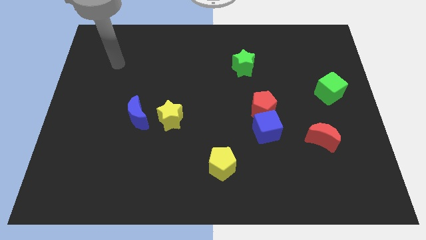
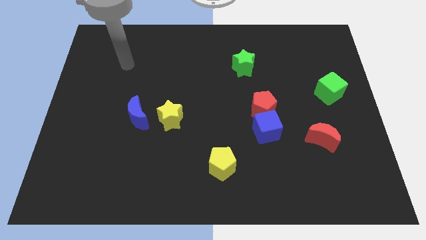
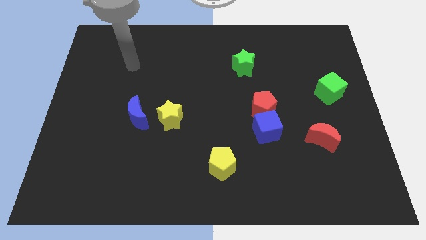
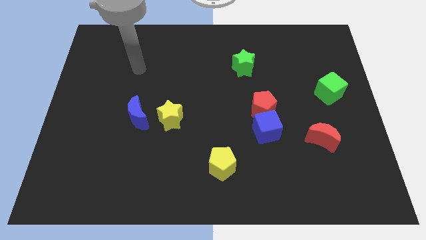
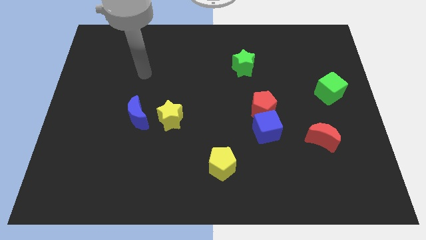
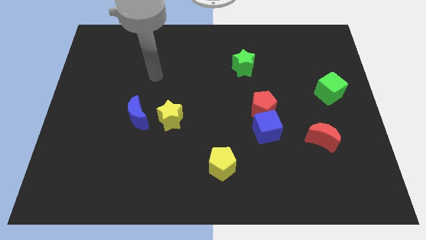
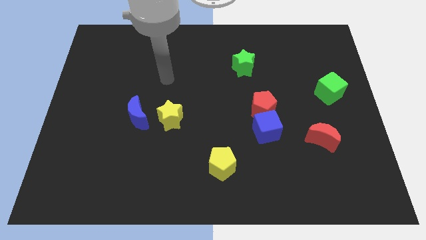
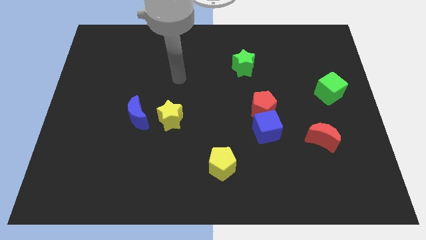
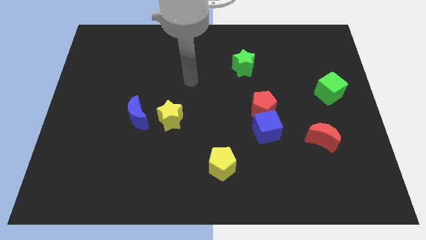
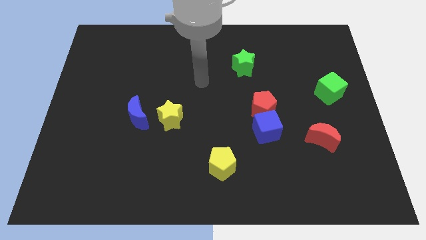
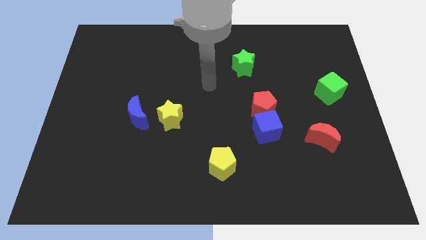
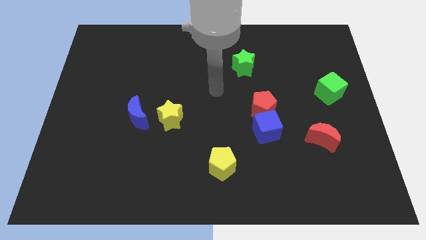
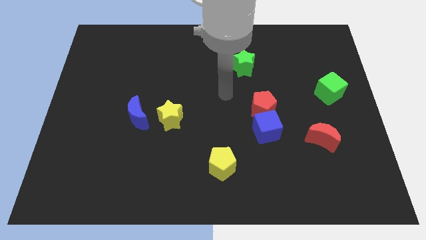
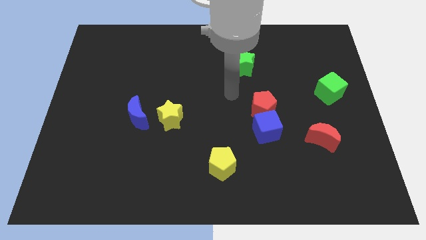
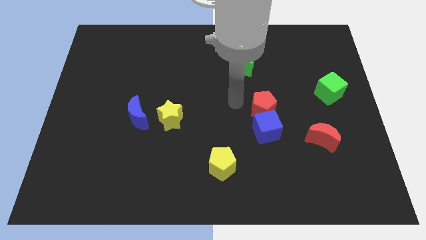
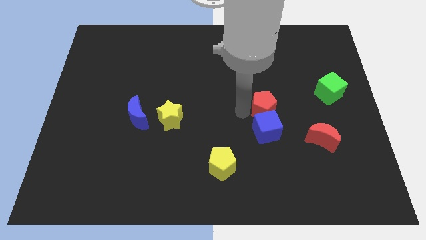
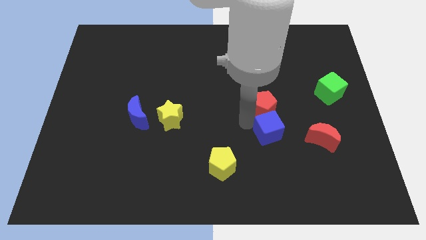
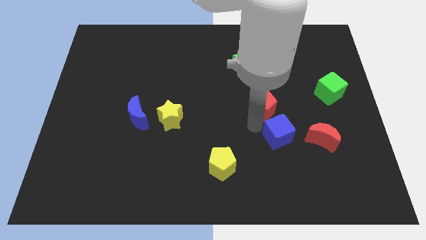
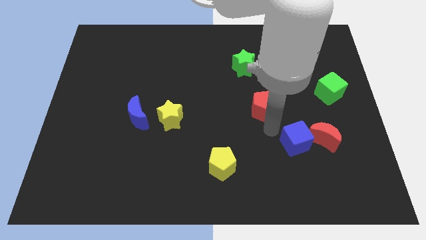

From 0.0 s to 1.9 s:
separate the red pentagon from the blue cube

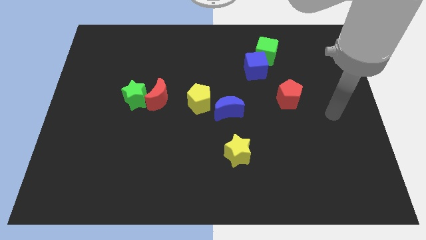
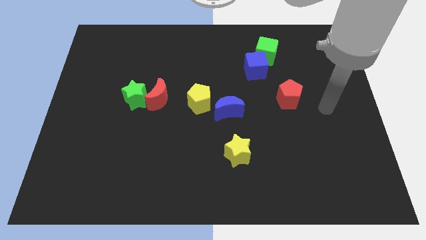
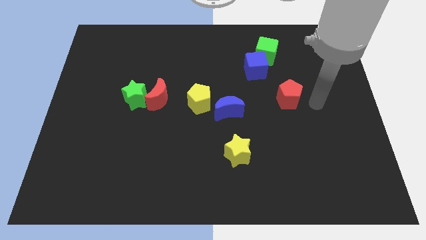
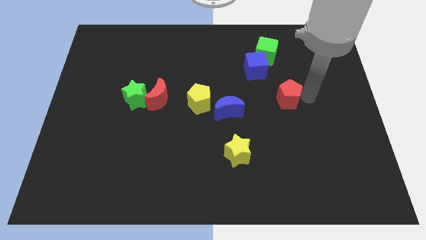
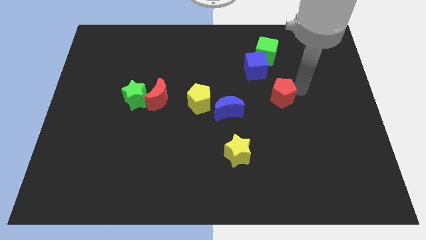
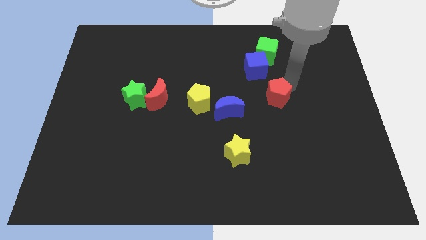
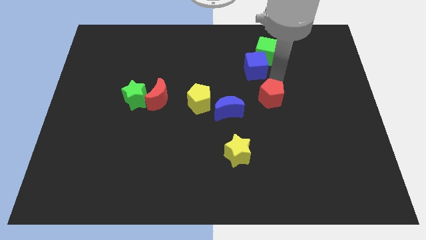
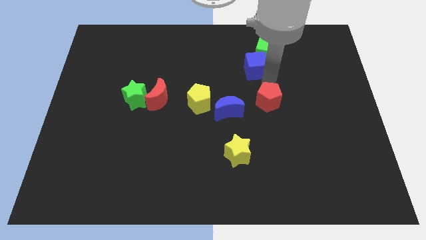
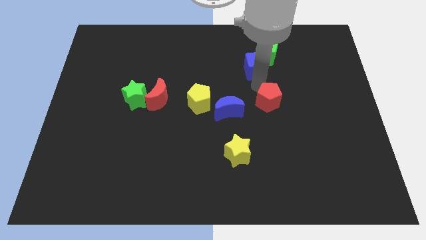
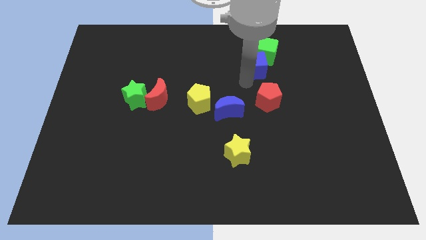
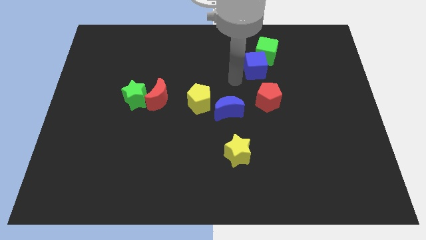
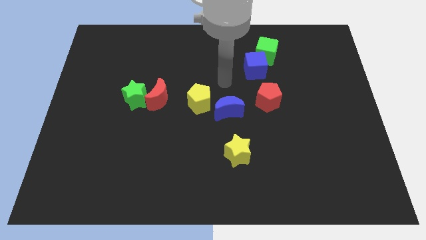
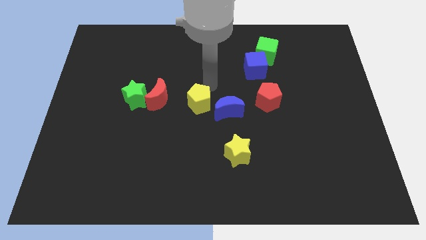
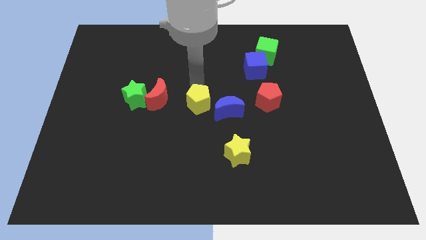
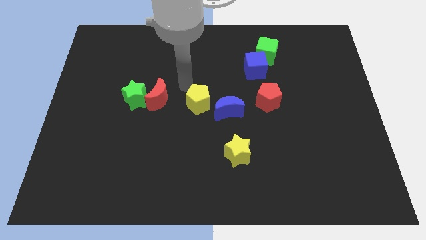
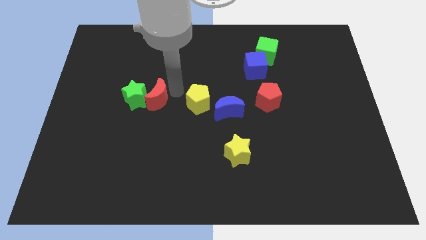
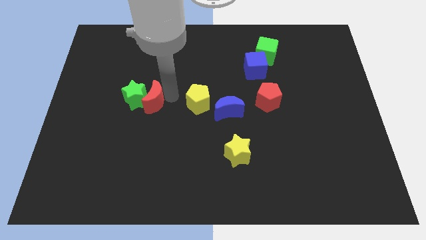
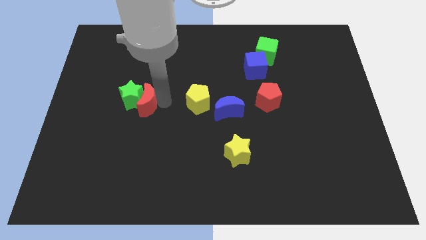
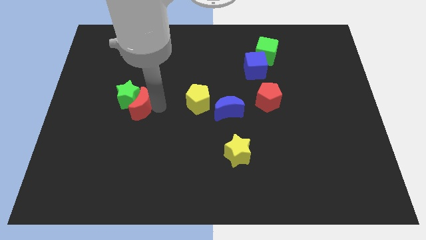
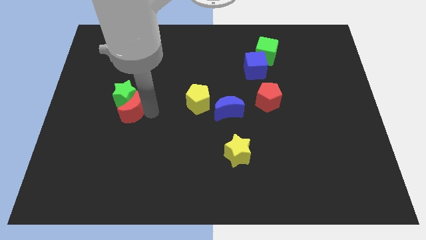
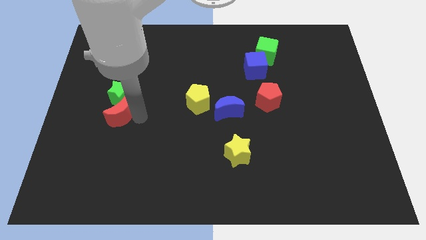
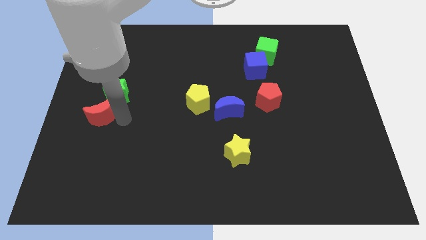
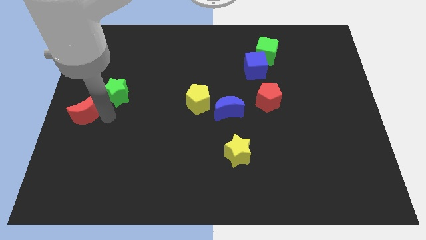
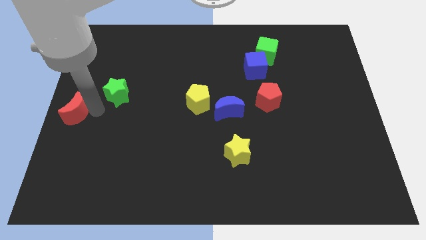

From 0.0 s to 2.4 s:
separate the green star from the red moon

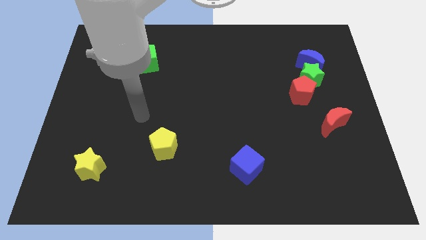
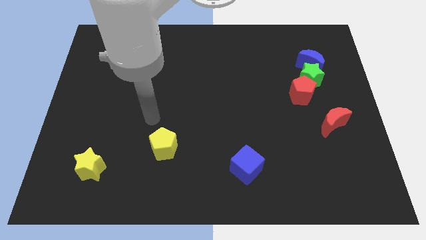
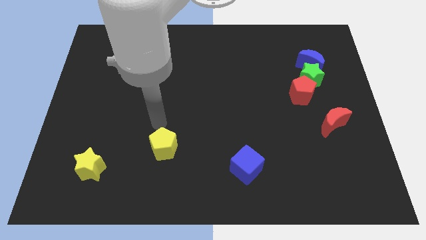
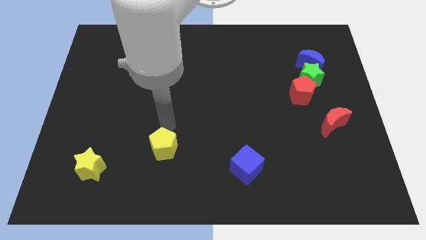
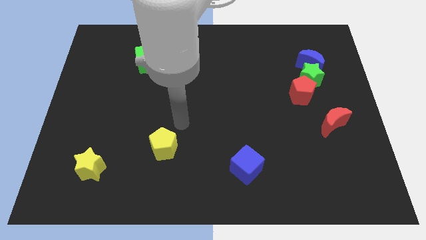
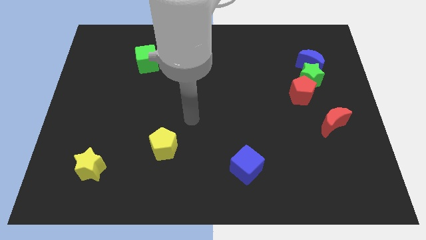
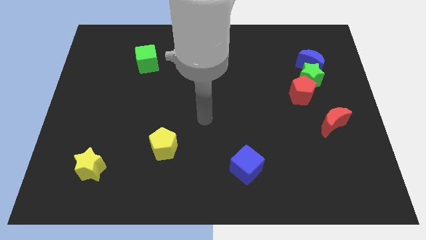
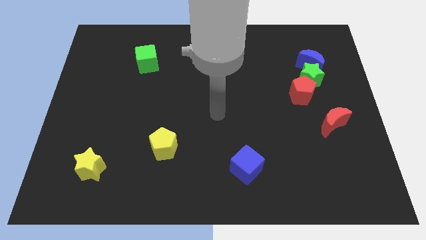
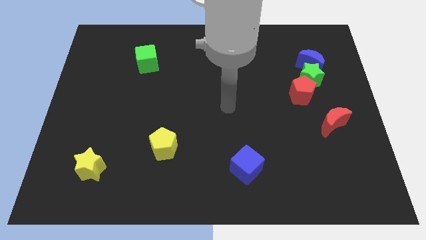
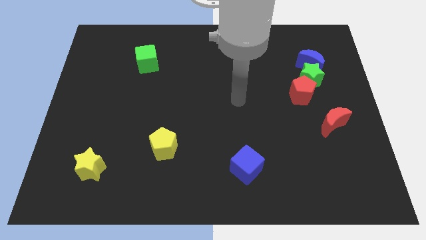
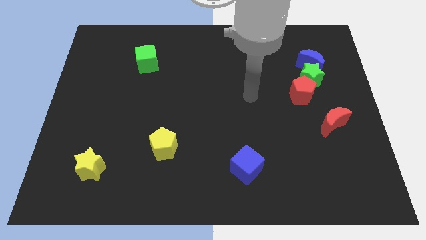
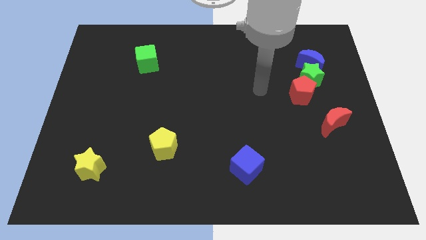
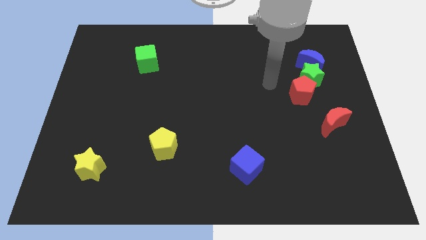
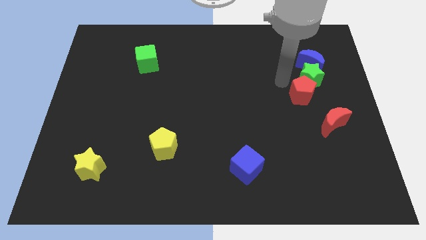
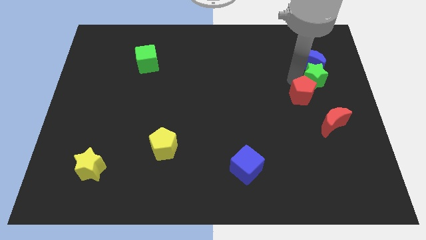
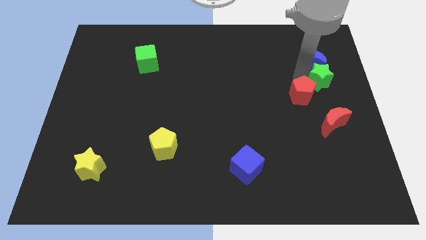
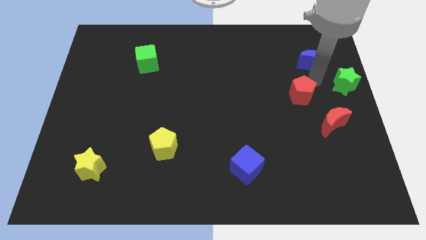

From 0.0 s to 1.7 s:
pull the red pentagon apart from the green star

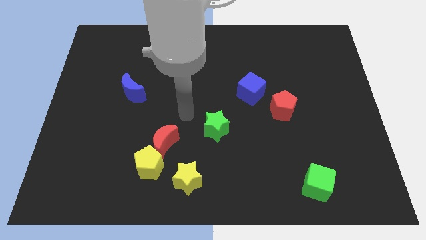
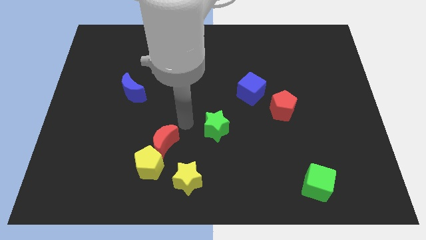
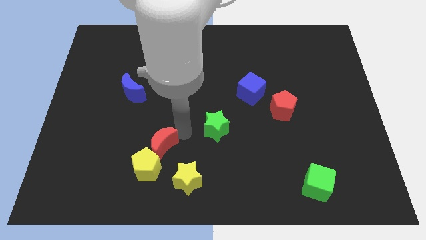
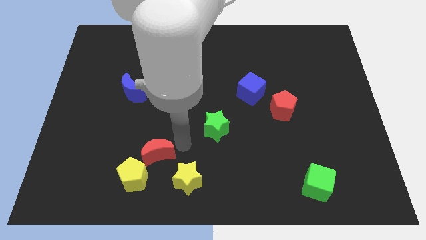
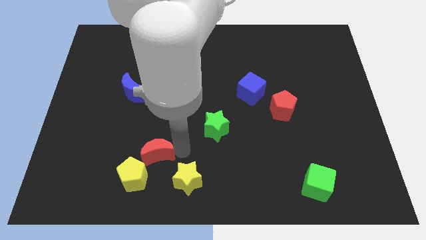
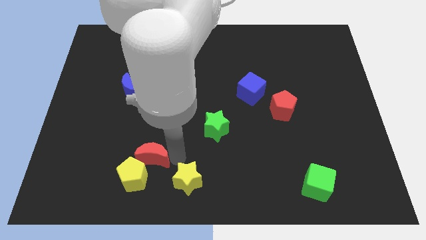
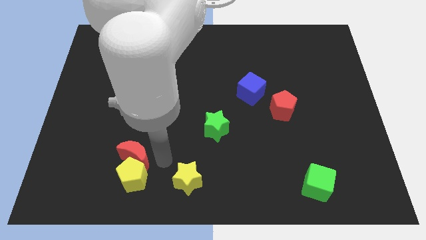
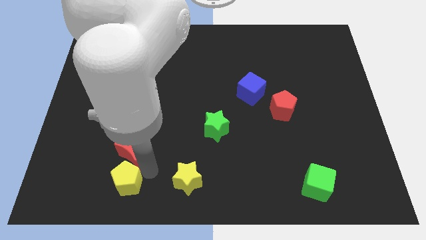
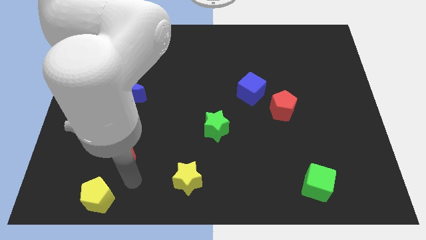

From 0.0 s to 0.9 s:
separate the red moon from the yellow pentagon

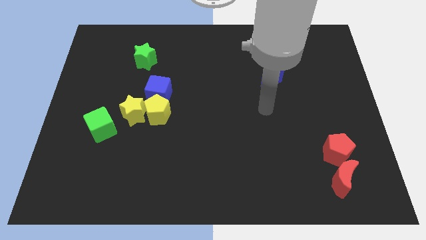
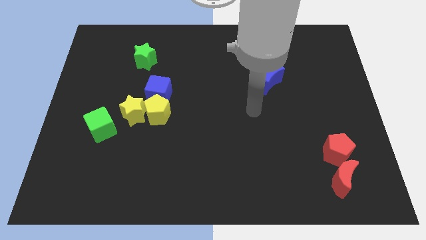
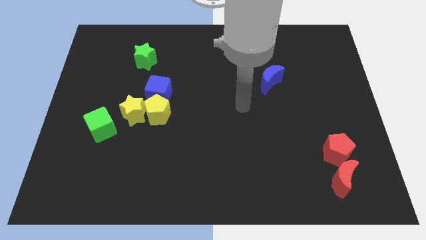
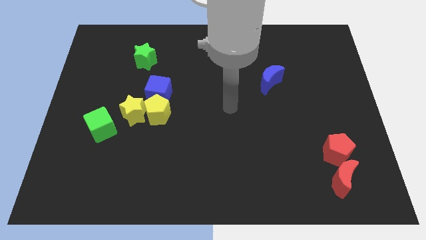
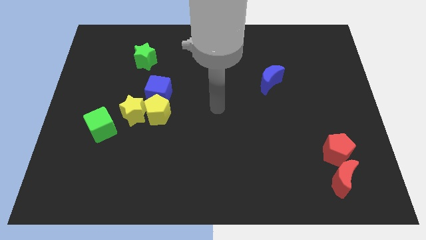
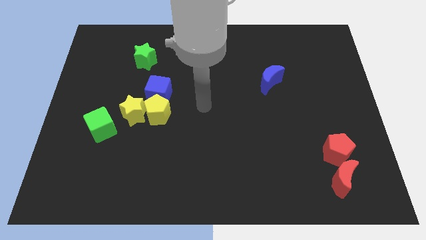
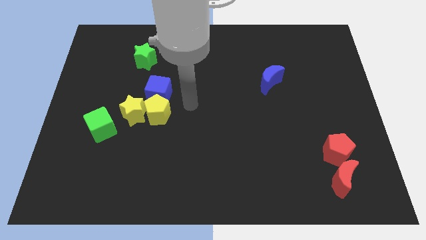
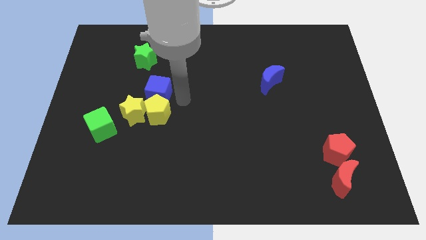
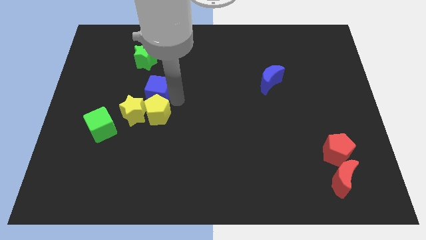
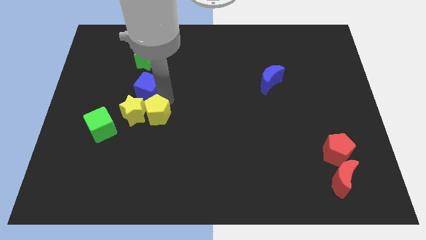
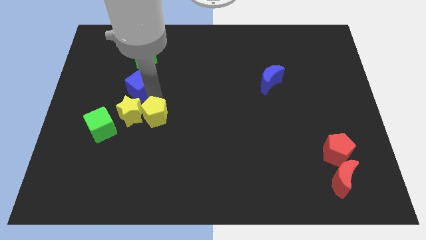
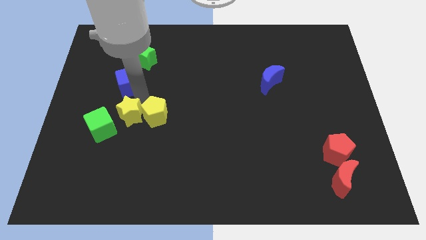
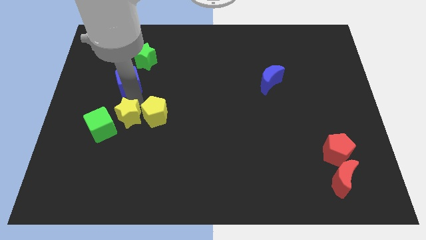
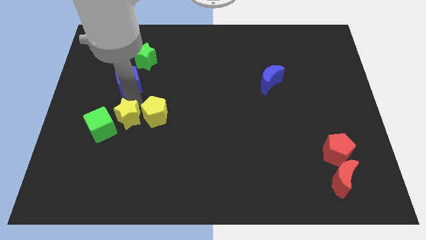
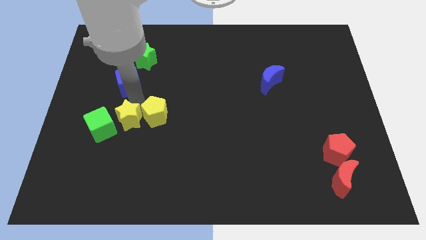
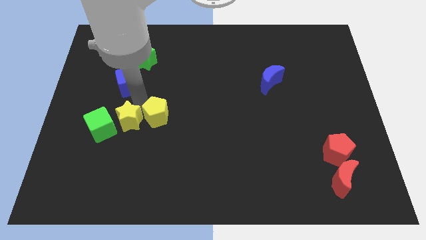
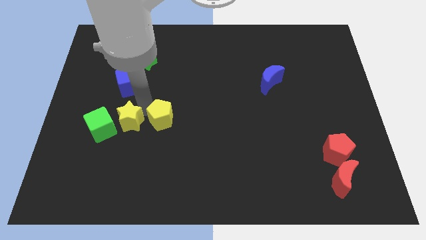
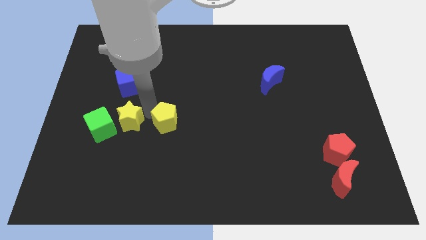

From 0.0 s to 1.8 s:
pull the yellow pentagon apart from the yellow star and blue cube

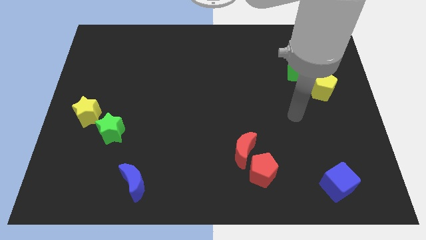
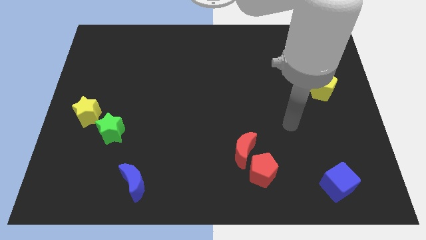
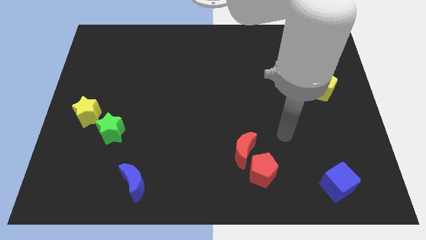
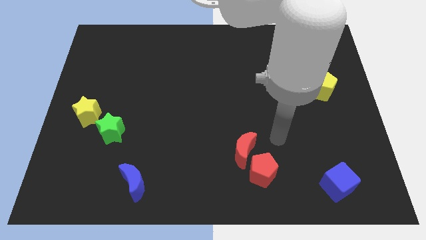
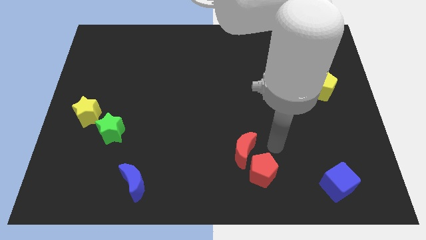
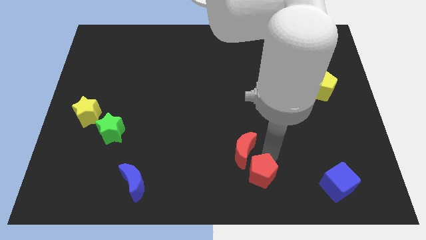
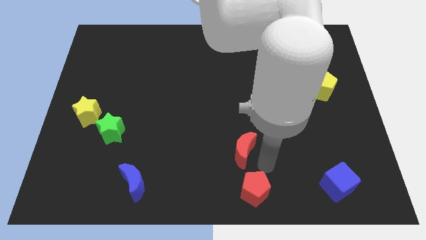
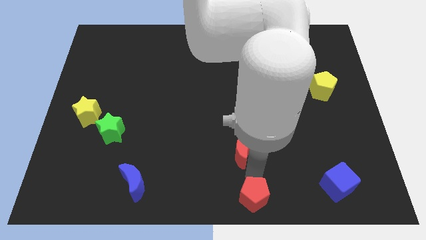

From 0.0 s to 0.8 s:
separate the red moon from the red pentagon
